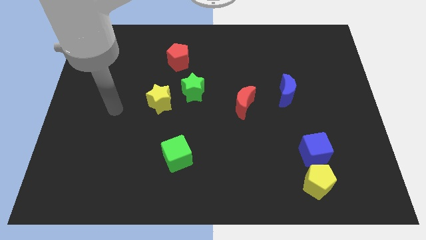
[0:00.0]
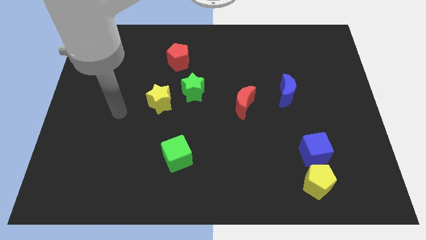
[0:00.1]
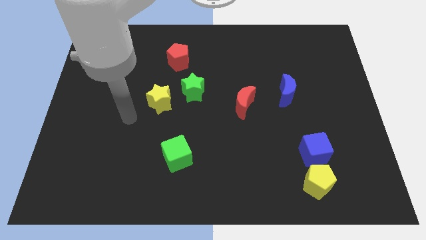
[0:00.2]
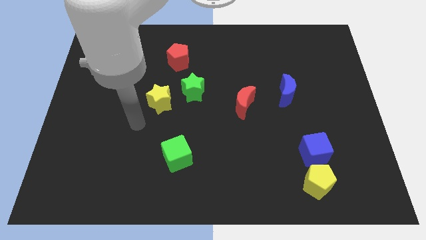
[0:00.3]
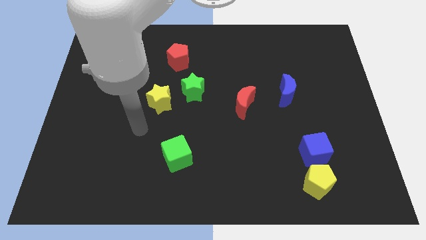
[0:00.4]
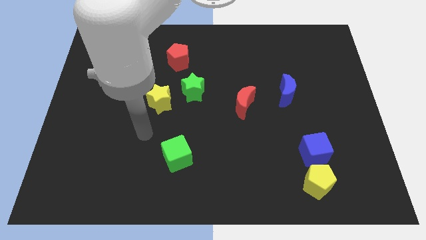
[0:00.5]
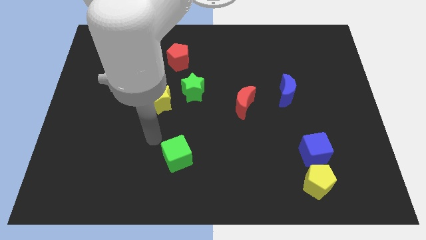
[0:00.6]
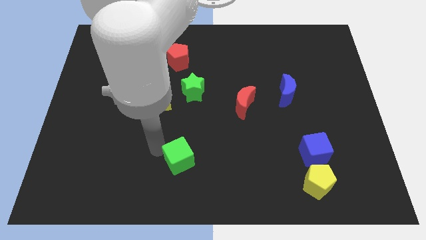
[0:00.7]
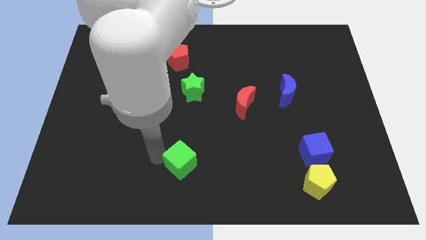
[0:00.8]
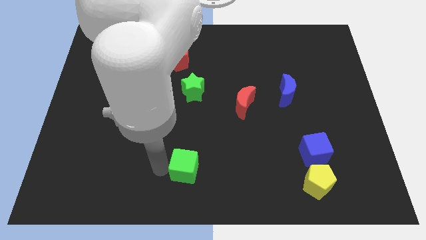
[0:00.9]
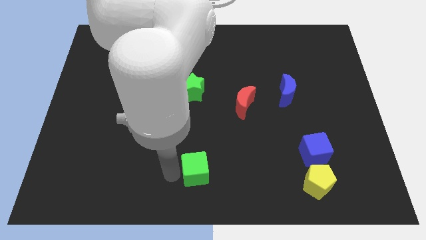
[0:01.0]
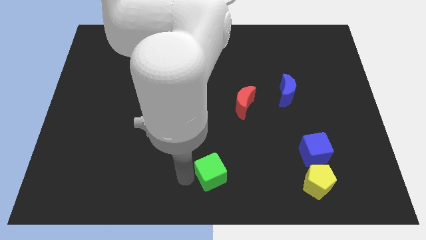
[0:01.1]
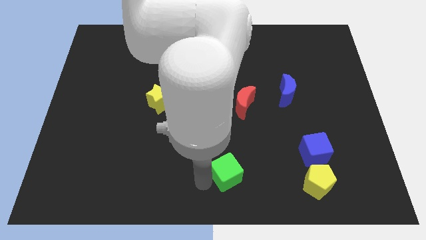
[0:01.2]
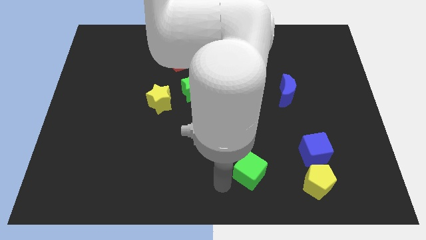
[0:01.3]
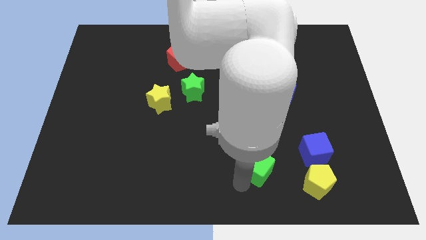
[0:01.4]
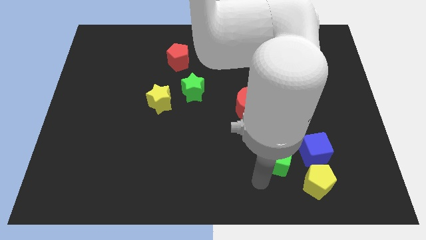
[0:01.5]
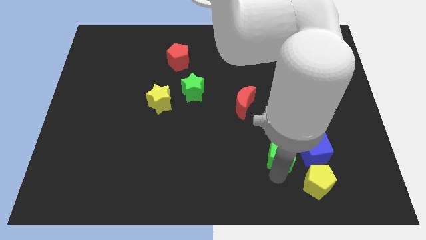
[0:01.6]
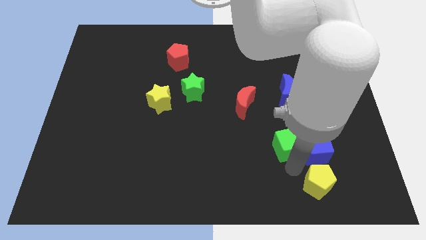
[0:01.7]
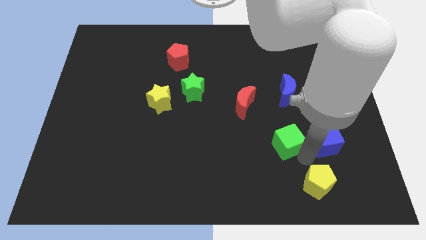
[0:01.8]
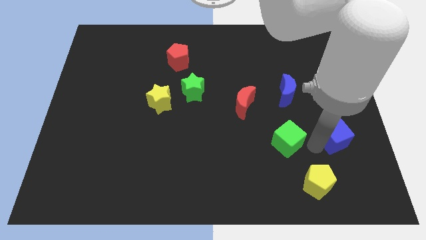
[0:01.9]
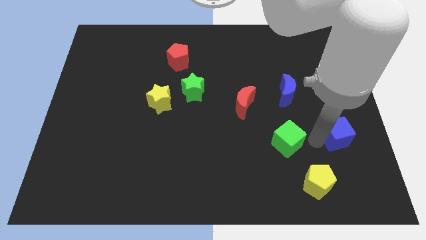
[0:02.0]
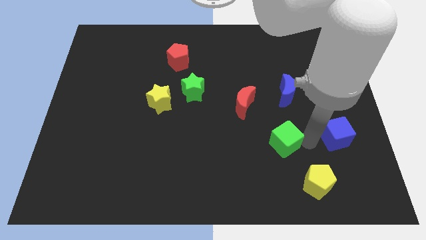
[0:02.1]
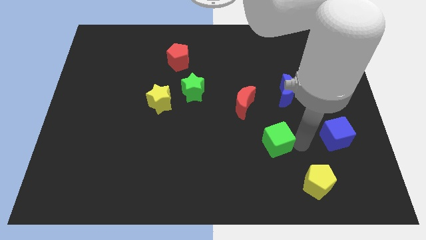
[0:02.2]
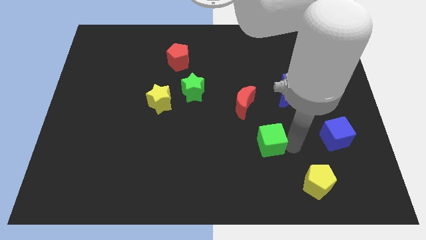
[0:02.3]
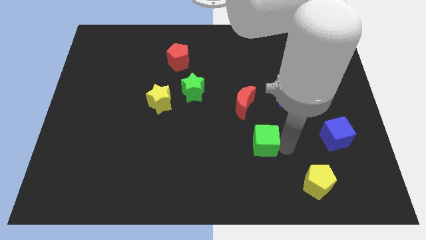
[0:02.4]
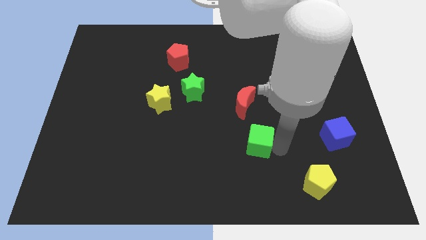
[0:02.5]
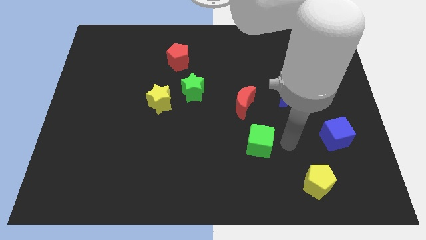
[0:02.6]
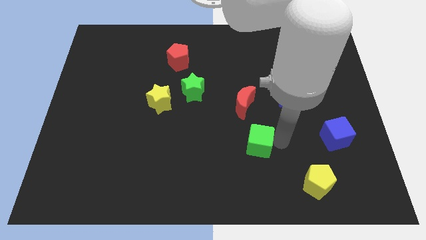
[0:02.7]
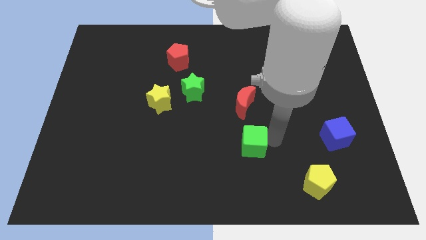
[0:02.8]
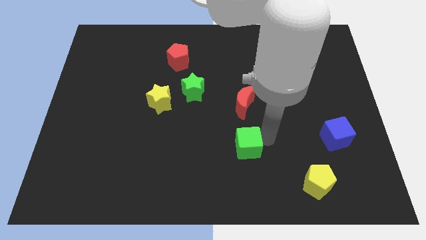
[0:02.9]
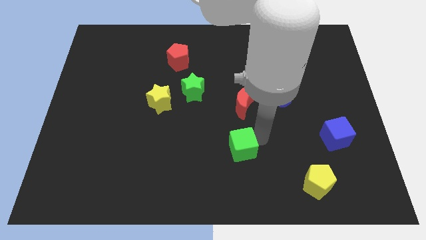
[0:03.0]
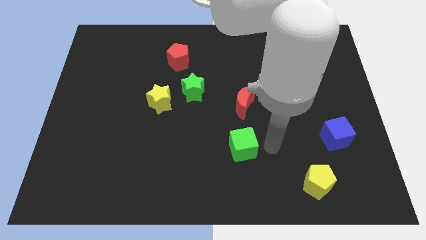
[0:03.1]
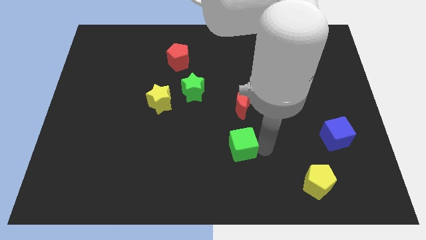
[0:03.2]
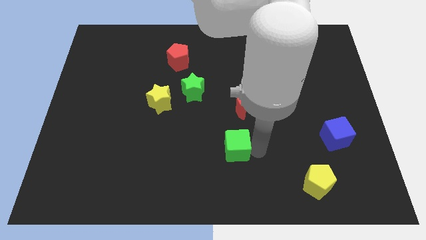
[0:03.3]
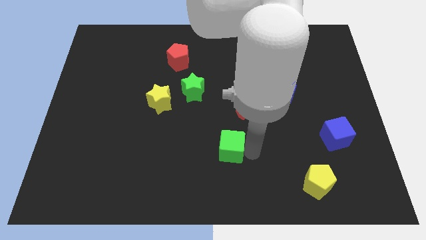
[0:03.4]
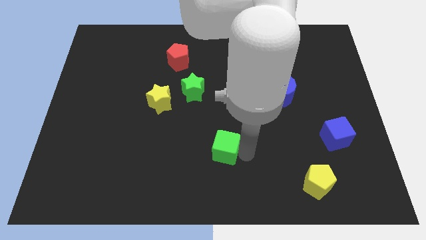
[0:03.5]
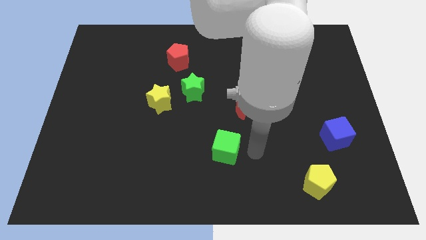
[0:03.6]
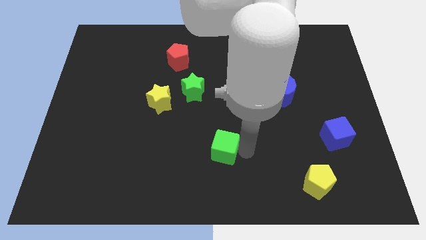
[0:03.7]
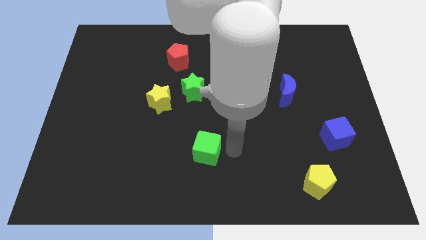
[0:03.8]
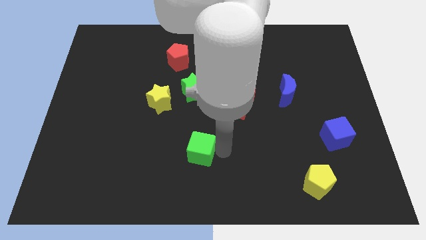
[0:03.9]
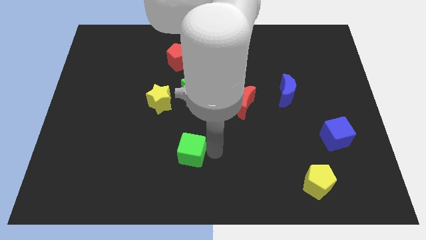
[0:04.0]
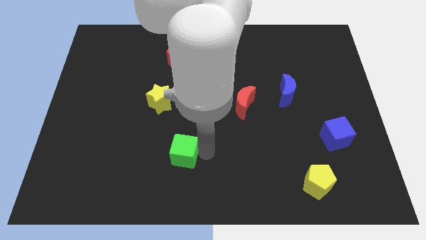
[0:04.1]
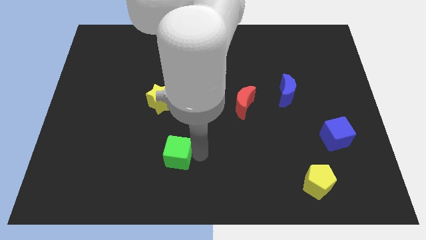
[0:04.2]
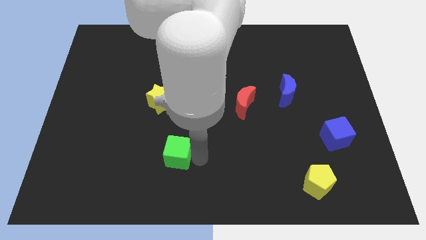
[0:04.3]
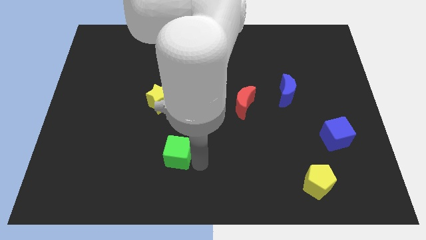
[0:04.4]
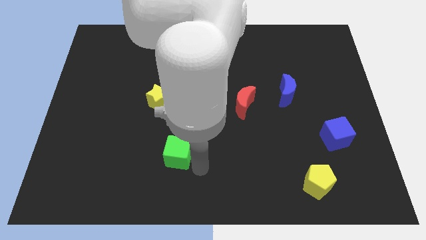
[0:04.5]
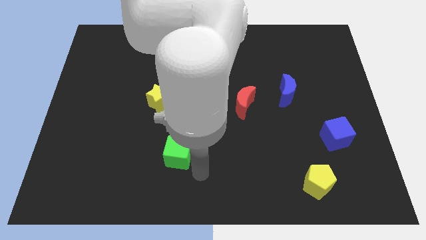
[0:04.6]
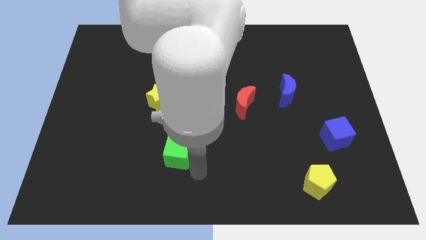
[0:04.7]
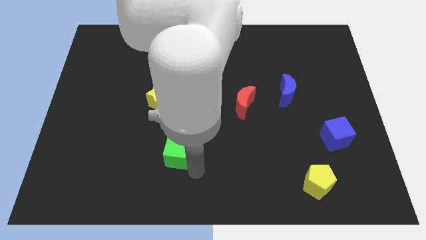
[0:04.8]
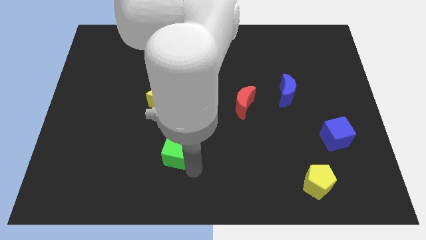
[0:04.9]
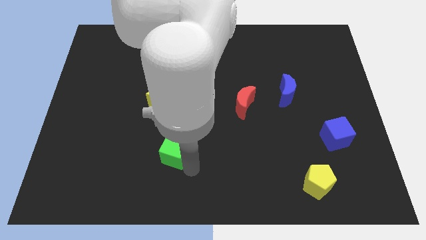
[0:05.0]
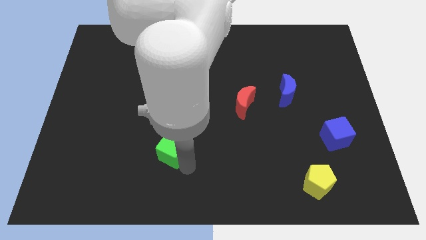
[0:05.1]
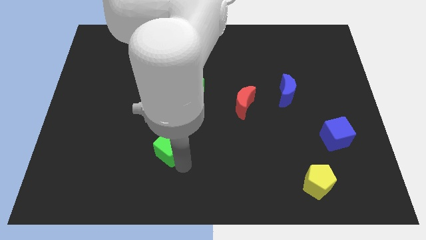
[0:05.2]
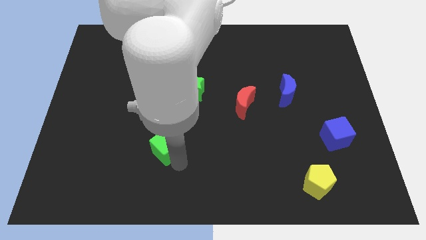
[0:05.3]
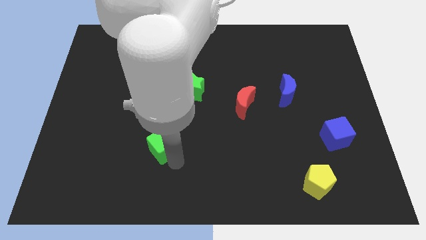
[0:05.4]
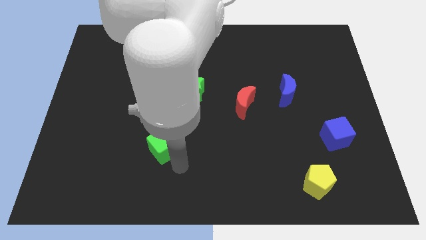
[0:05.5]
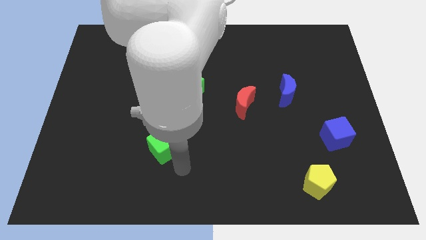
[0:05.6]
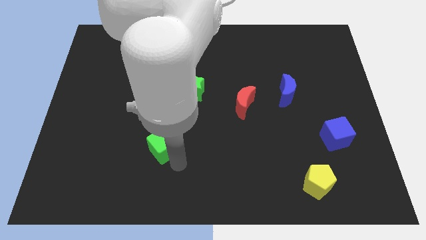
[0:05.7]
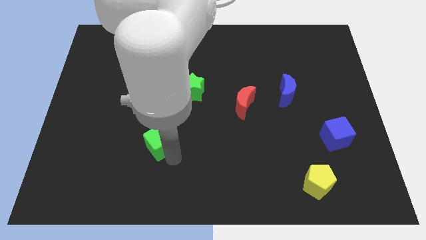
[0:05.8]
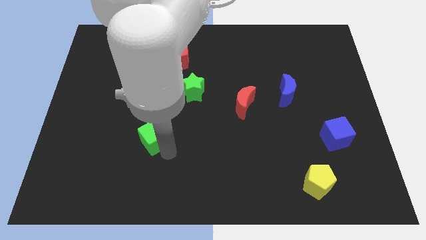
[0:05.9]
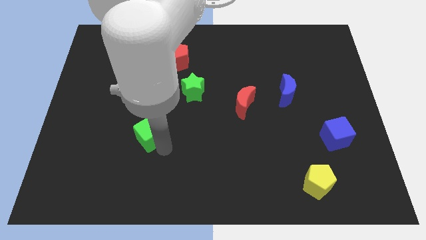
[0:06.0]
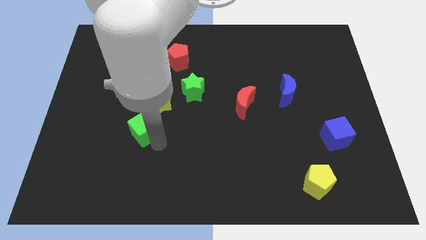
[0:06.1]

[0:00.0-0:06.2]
push the green cube to the bottom left side of the yellow star

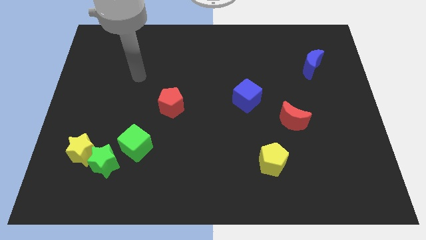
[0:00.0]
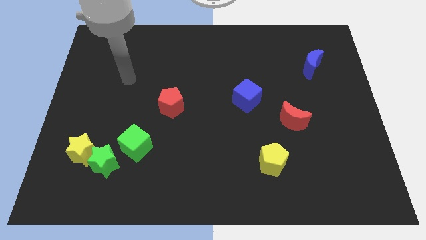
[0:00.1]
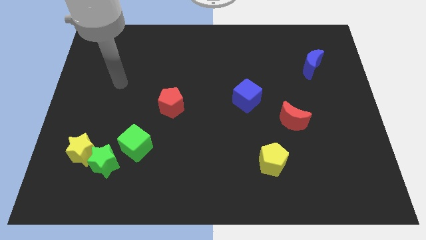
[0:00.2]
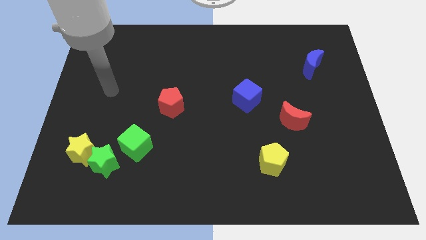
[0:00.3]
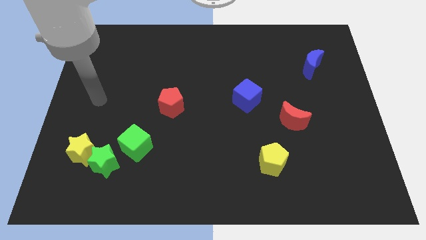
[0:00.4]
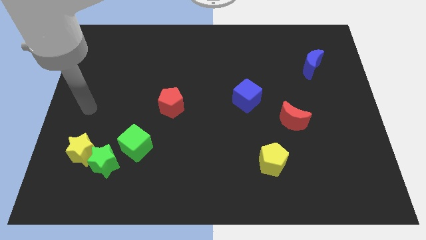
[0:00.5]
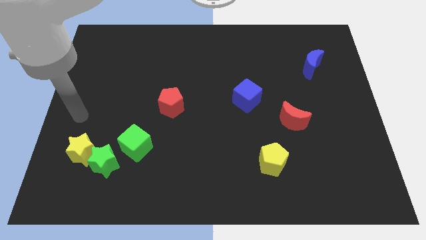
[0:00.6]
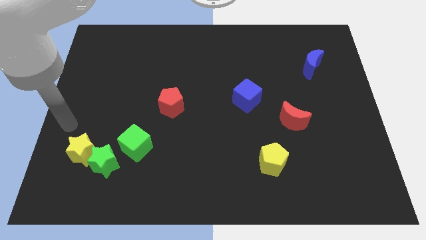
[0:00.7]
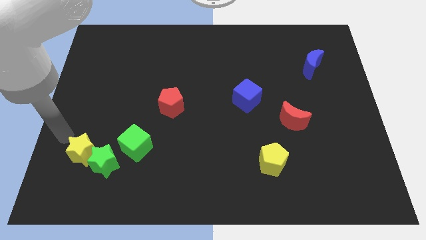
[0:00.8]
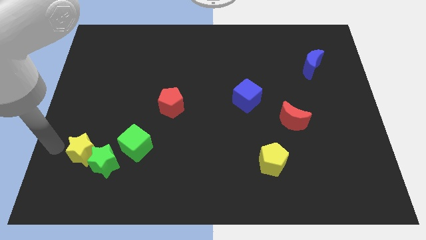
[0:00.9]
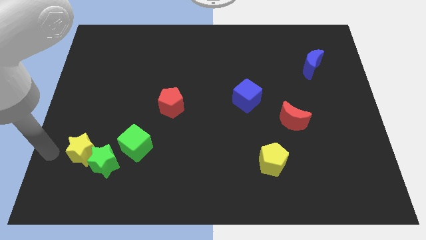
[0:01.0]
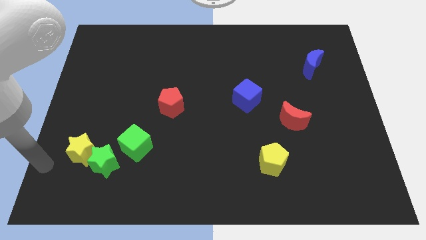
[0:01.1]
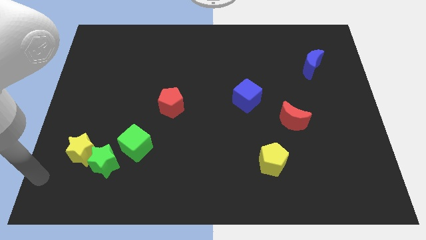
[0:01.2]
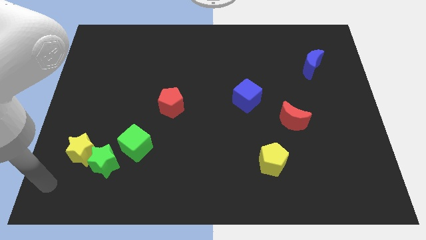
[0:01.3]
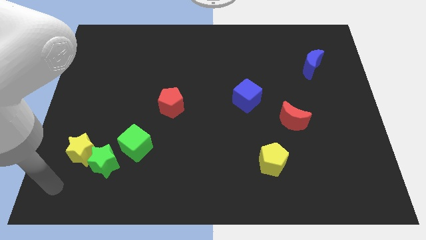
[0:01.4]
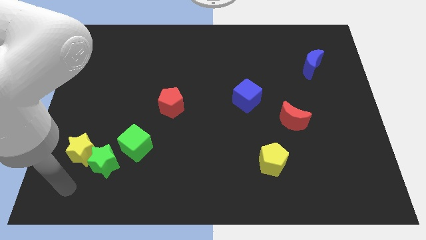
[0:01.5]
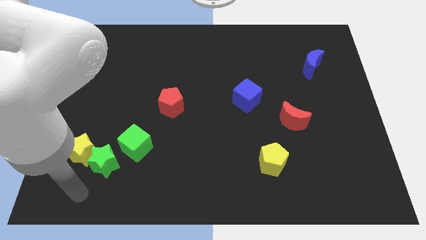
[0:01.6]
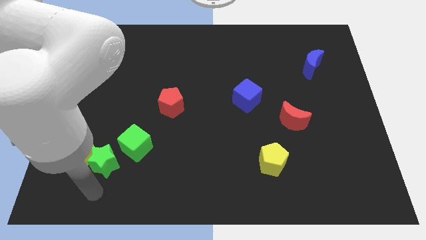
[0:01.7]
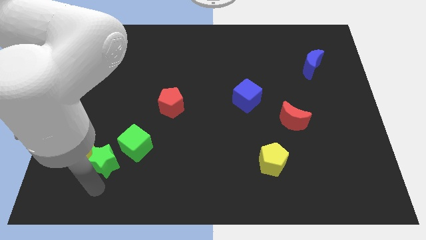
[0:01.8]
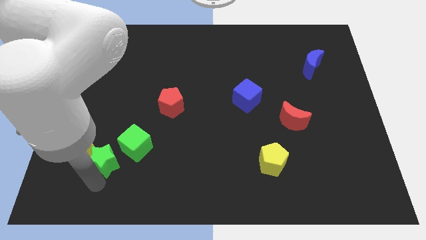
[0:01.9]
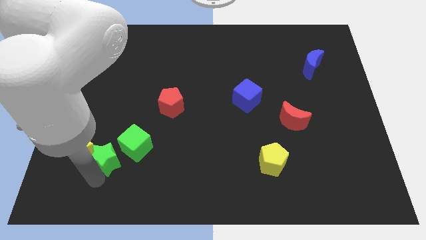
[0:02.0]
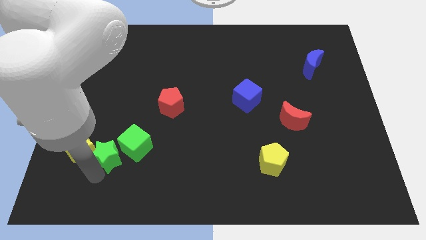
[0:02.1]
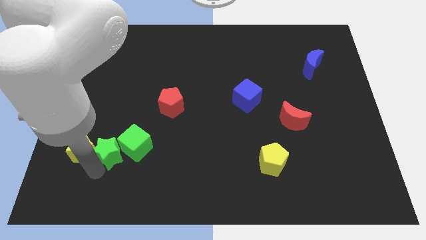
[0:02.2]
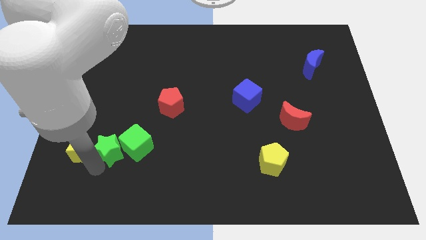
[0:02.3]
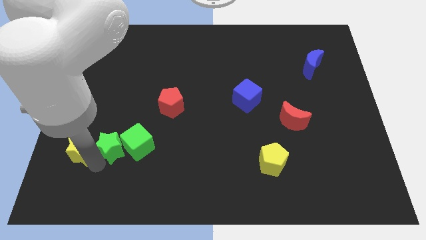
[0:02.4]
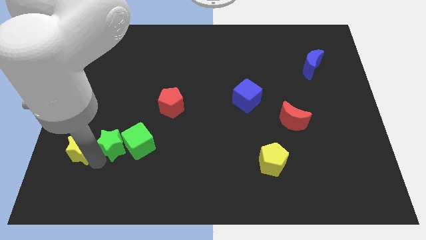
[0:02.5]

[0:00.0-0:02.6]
slide the green star to the top left side of the green cube
